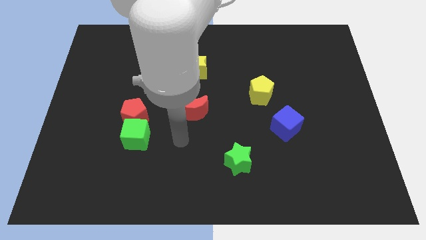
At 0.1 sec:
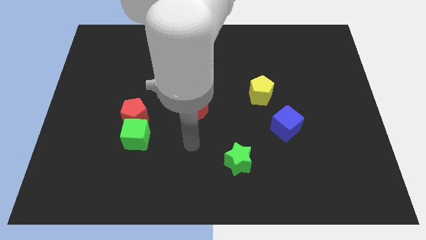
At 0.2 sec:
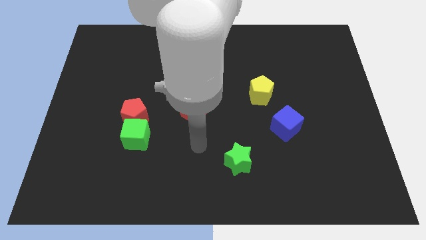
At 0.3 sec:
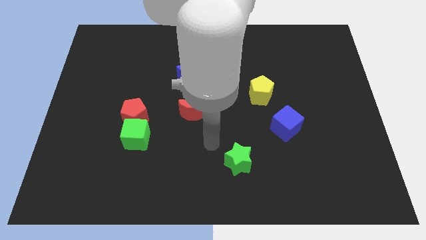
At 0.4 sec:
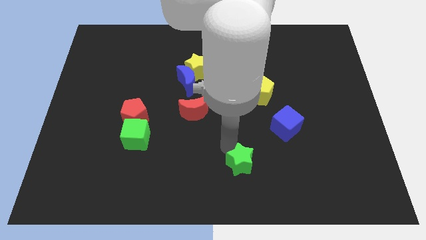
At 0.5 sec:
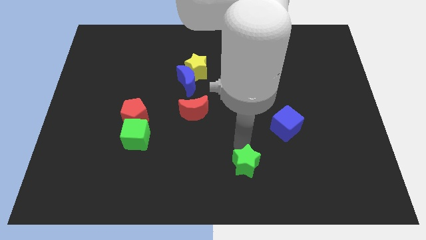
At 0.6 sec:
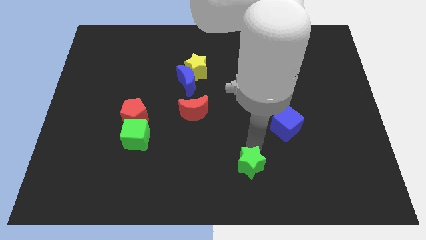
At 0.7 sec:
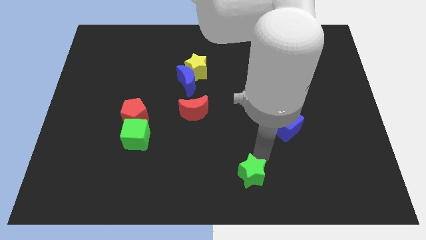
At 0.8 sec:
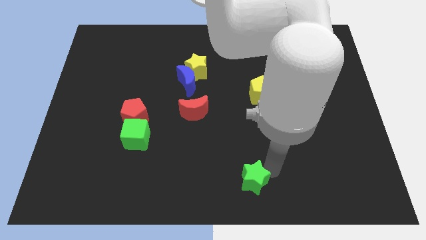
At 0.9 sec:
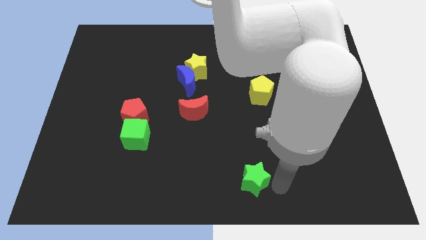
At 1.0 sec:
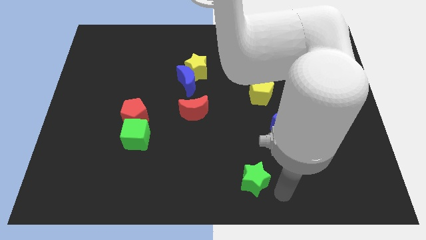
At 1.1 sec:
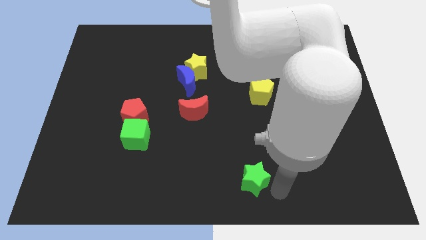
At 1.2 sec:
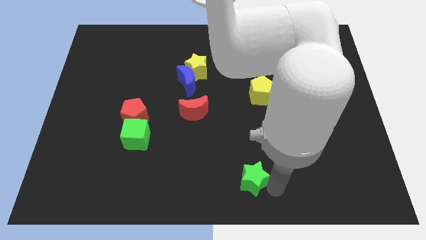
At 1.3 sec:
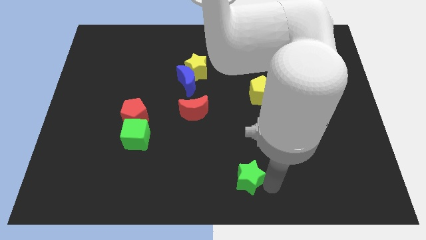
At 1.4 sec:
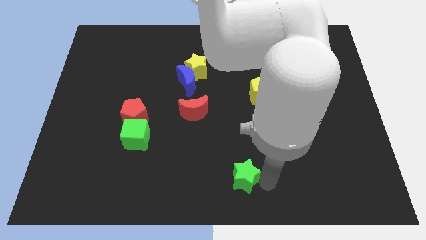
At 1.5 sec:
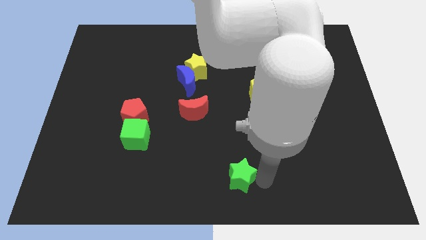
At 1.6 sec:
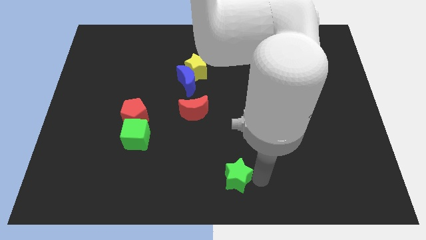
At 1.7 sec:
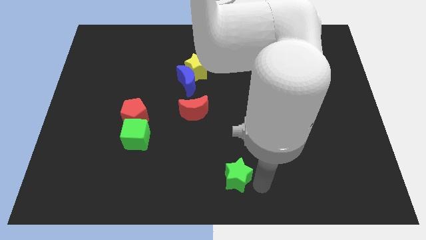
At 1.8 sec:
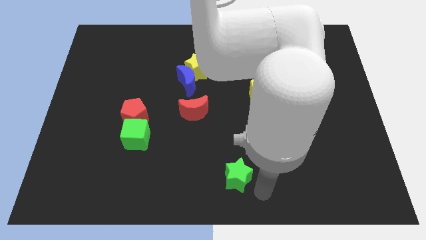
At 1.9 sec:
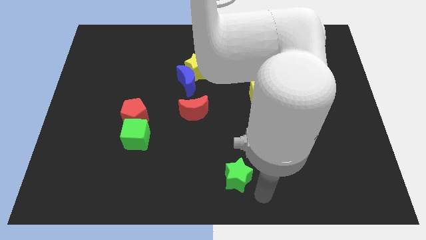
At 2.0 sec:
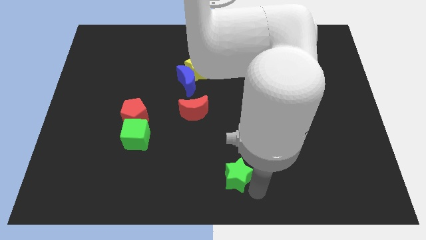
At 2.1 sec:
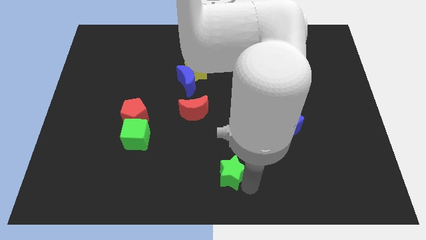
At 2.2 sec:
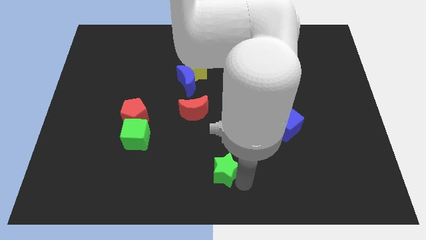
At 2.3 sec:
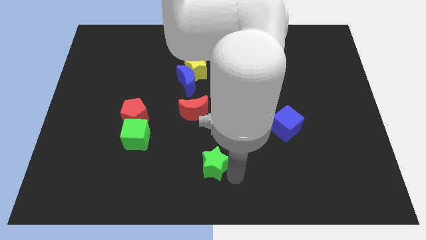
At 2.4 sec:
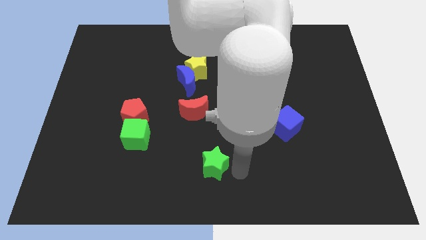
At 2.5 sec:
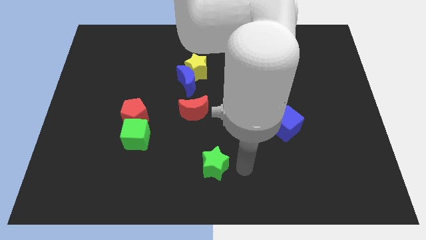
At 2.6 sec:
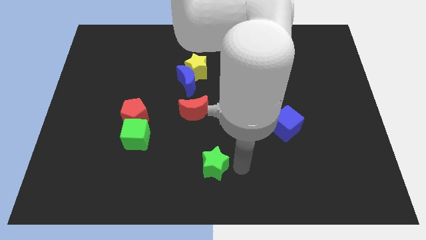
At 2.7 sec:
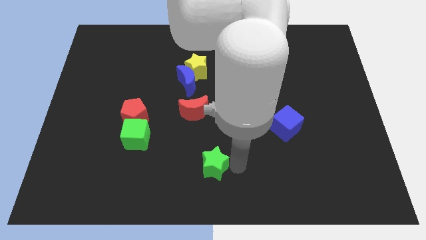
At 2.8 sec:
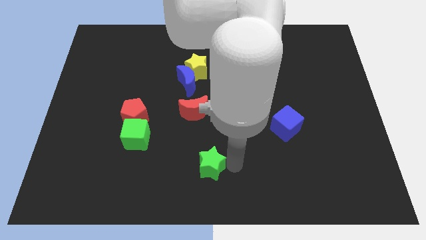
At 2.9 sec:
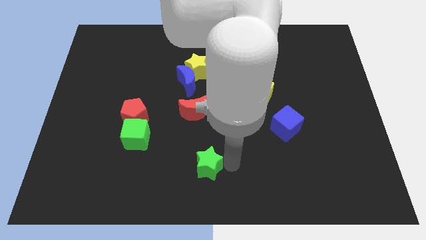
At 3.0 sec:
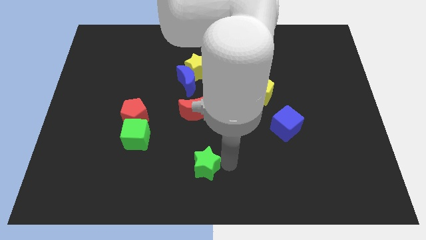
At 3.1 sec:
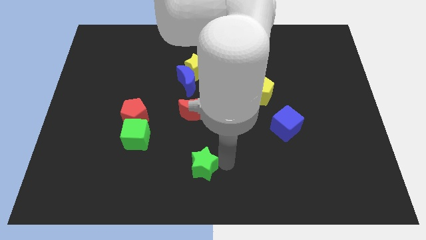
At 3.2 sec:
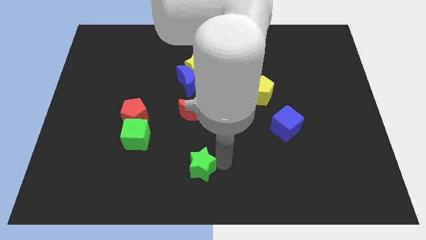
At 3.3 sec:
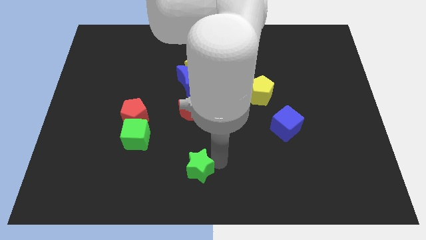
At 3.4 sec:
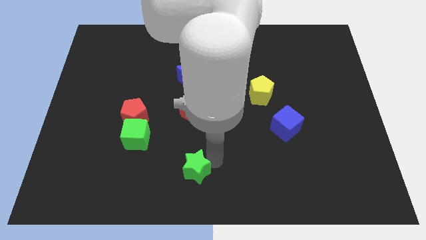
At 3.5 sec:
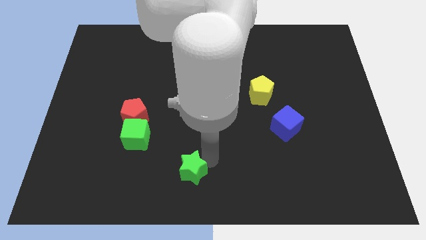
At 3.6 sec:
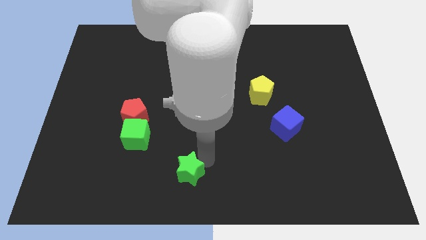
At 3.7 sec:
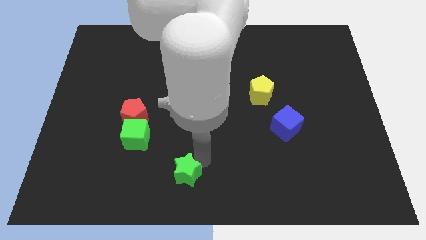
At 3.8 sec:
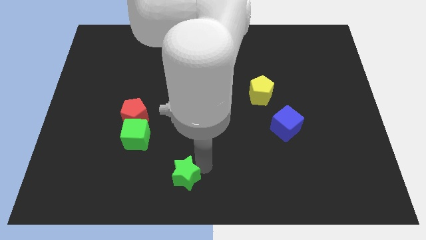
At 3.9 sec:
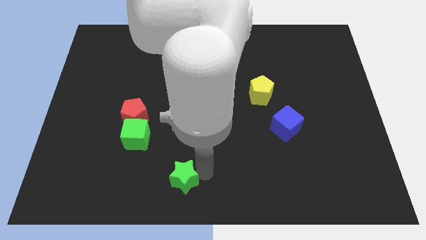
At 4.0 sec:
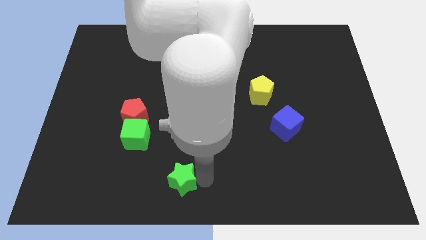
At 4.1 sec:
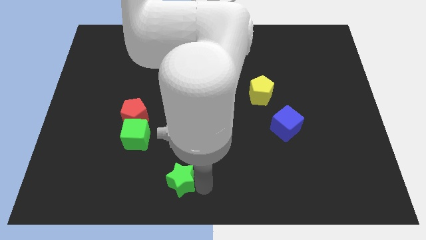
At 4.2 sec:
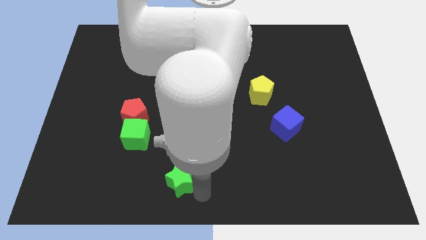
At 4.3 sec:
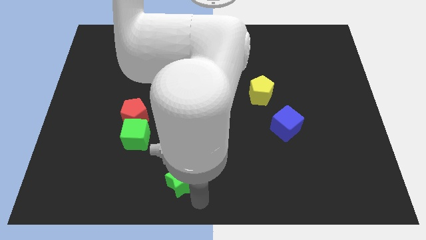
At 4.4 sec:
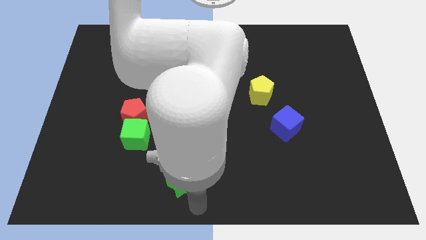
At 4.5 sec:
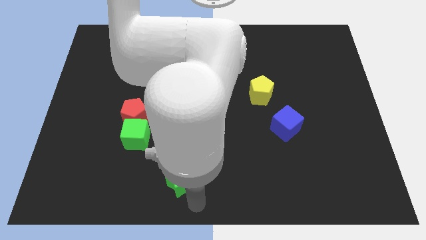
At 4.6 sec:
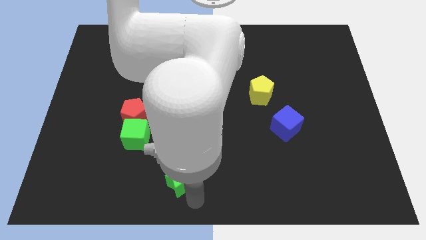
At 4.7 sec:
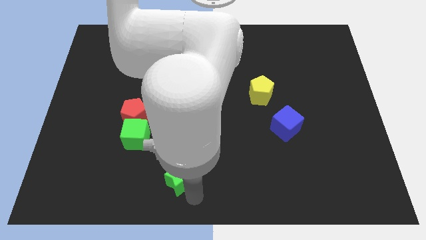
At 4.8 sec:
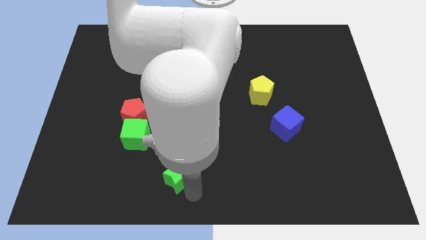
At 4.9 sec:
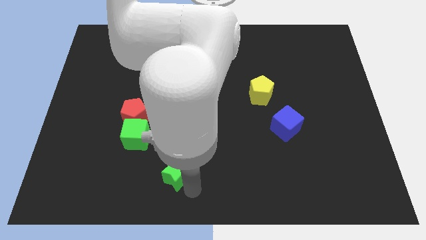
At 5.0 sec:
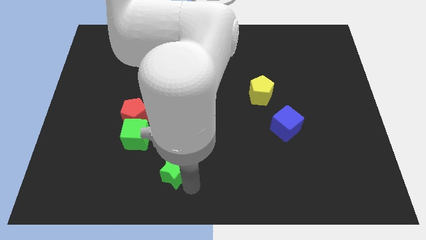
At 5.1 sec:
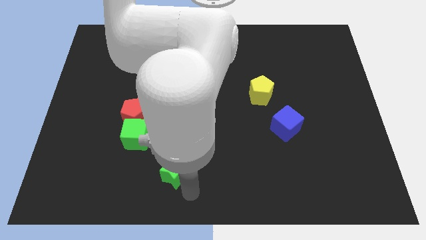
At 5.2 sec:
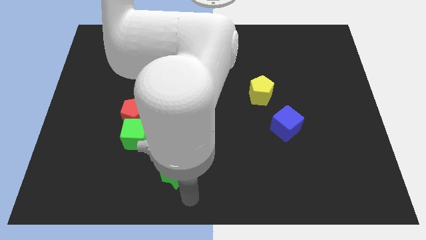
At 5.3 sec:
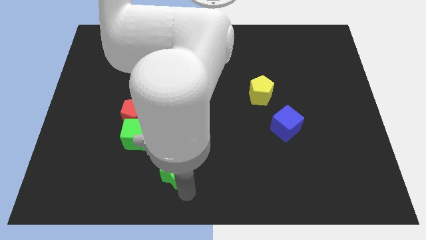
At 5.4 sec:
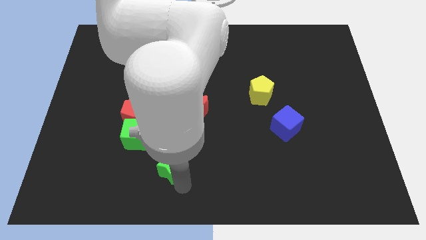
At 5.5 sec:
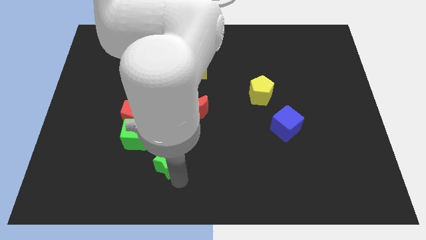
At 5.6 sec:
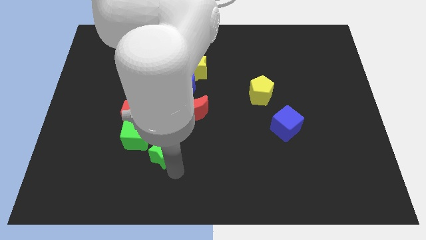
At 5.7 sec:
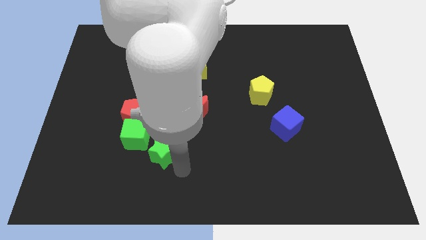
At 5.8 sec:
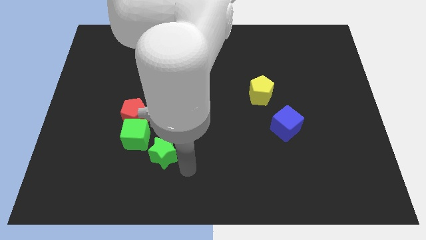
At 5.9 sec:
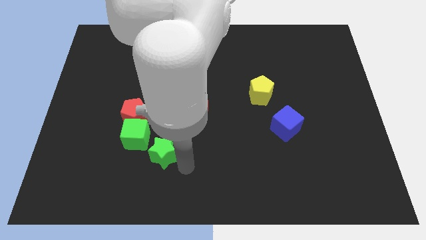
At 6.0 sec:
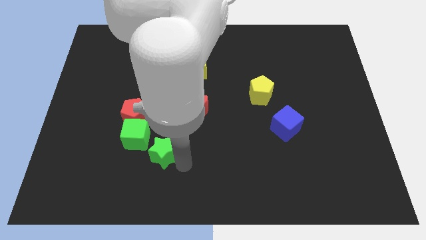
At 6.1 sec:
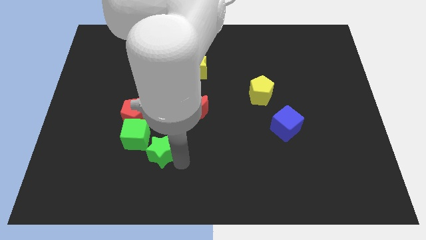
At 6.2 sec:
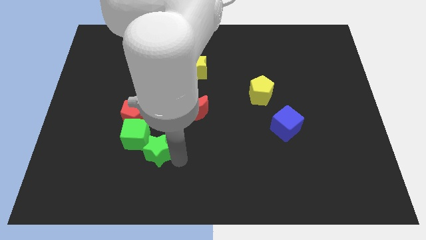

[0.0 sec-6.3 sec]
push the green star to the green cube

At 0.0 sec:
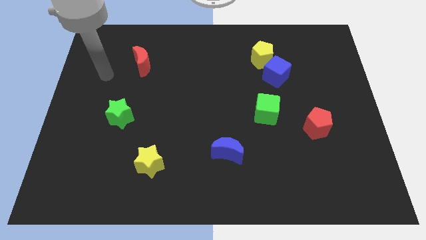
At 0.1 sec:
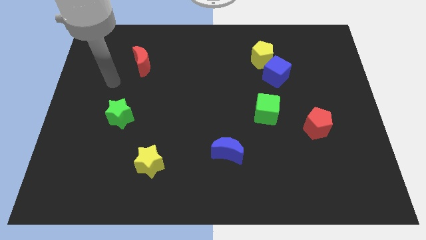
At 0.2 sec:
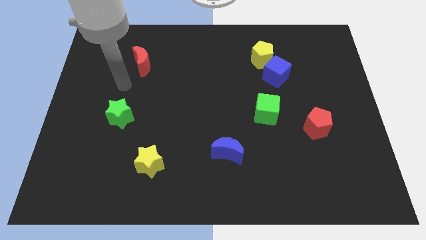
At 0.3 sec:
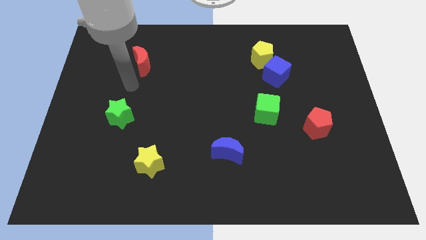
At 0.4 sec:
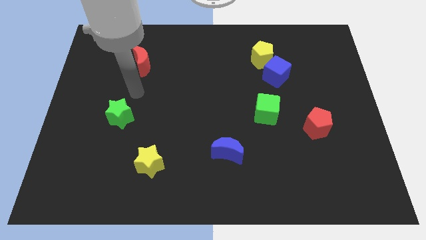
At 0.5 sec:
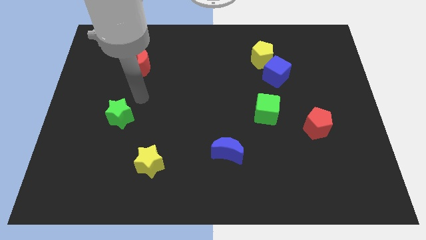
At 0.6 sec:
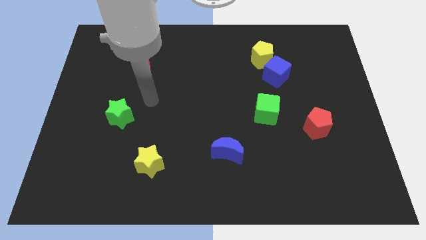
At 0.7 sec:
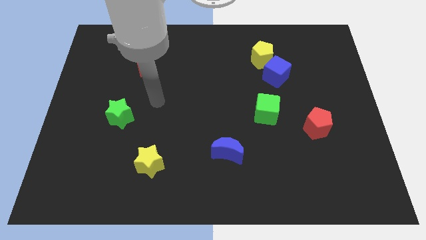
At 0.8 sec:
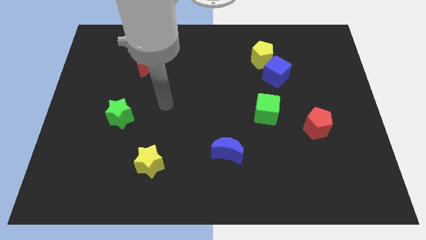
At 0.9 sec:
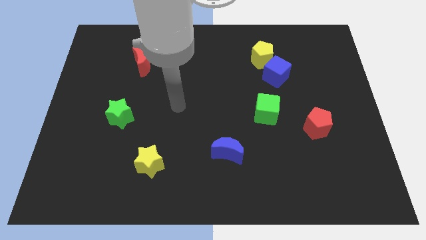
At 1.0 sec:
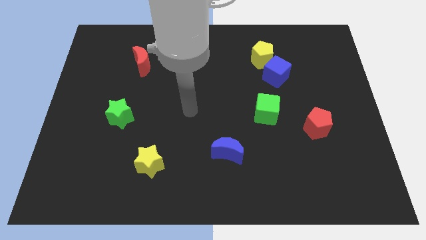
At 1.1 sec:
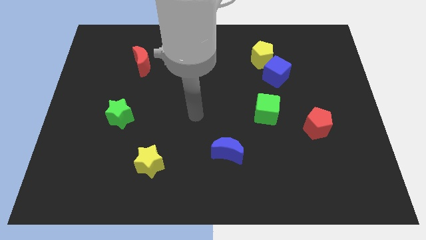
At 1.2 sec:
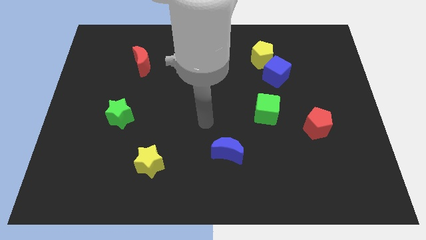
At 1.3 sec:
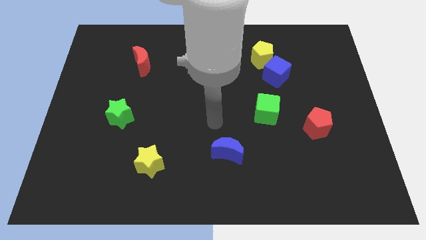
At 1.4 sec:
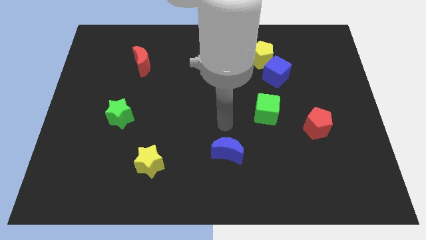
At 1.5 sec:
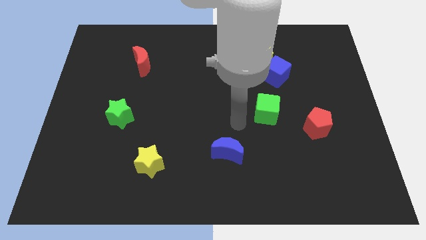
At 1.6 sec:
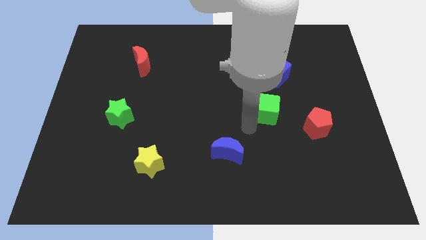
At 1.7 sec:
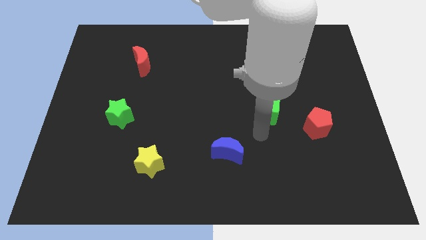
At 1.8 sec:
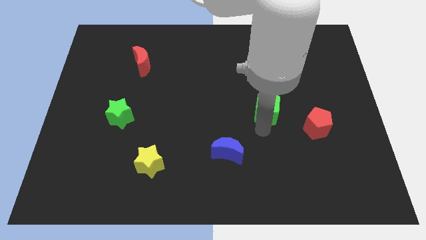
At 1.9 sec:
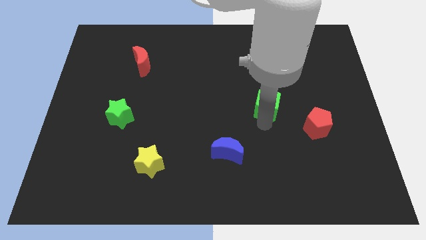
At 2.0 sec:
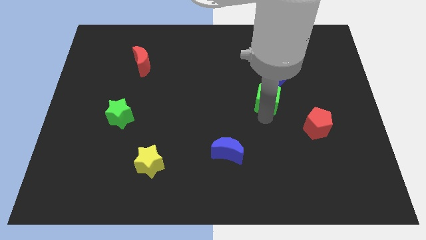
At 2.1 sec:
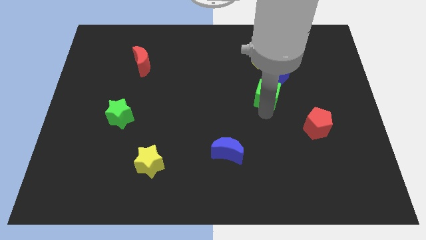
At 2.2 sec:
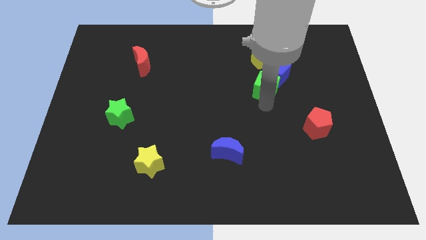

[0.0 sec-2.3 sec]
push the green cube to the blue cube
